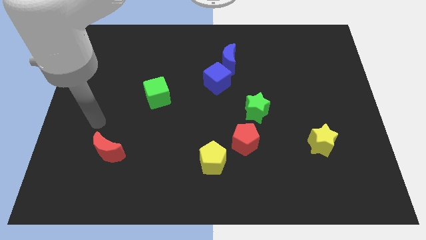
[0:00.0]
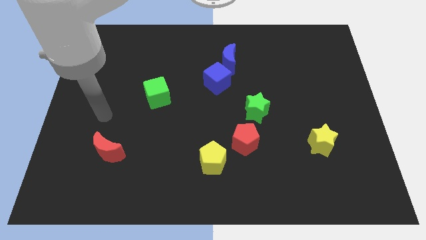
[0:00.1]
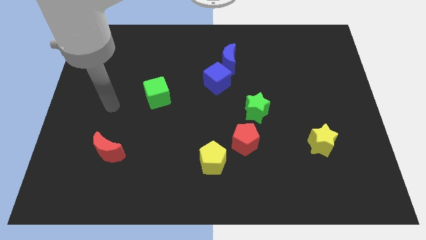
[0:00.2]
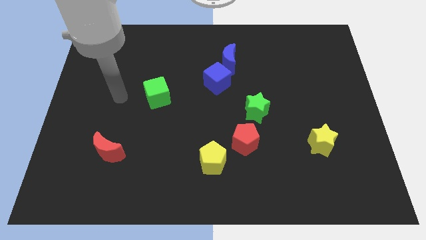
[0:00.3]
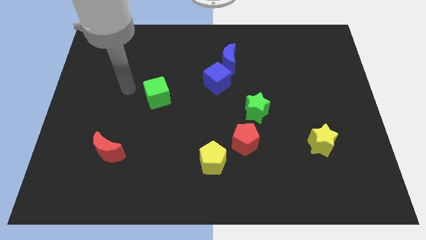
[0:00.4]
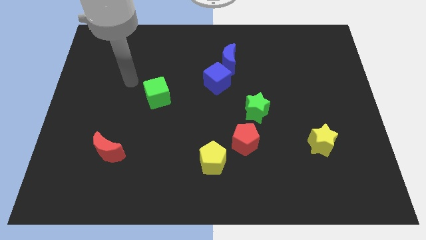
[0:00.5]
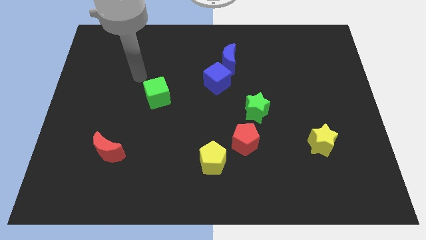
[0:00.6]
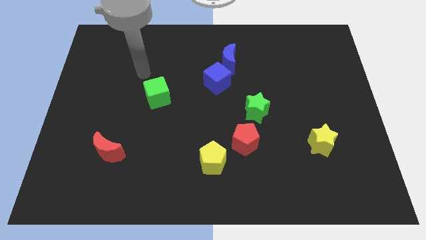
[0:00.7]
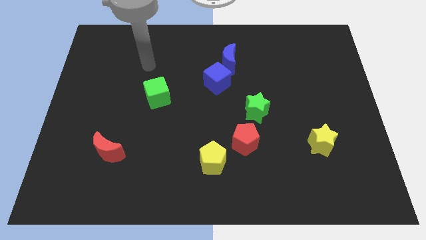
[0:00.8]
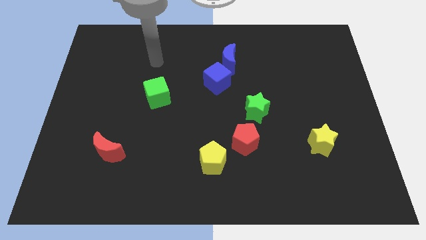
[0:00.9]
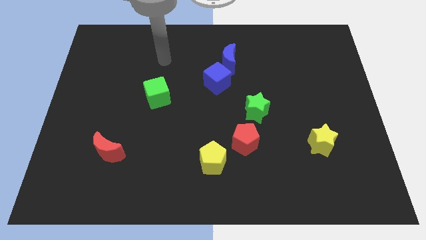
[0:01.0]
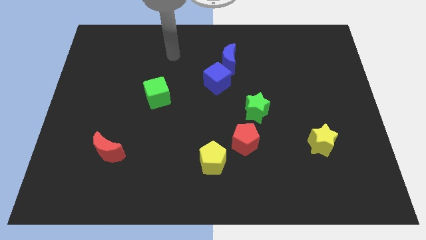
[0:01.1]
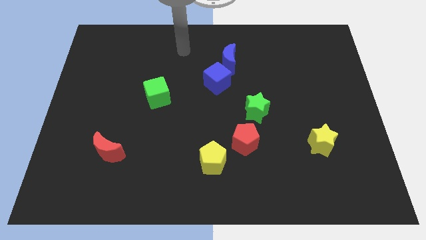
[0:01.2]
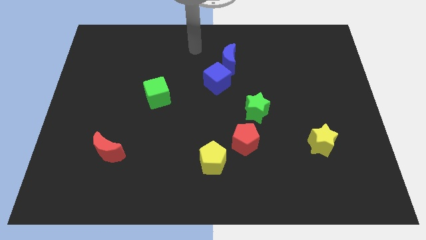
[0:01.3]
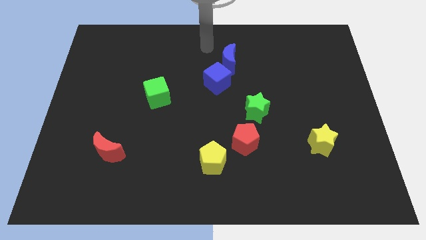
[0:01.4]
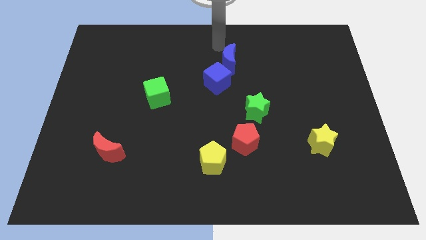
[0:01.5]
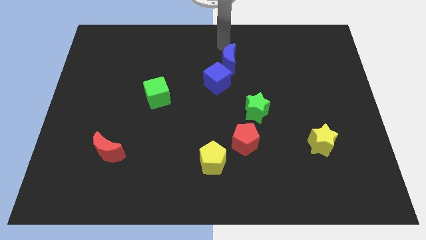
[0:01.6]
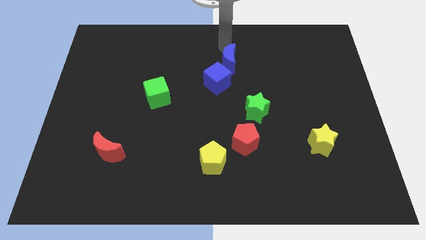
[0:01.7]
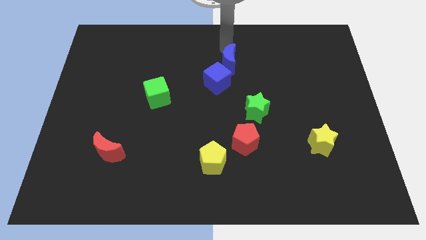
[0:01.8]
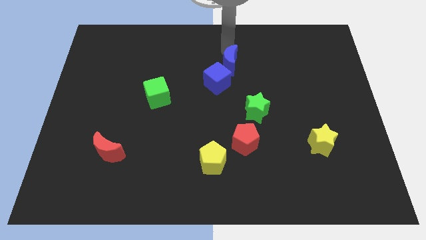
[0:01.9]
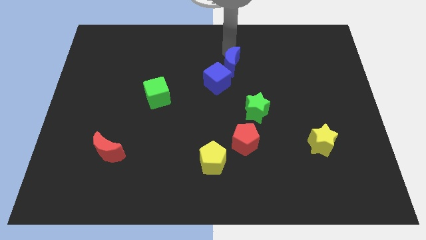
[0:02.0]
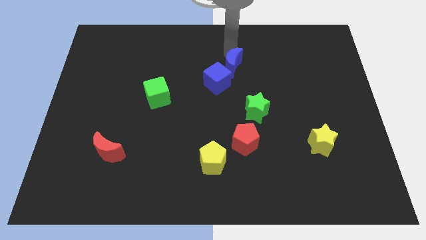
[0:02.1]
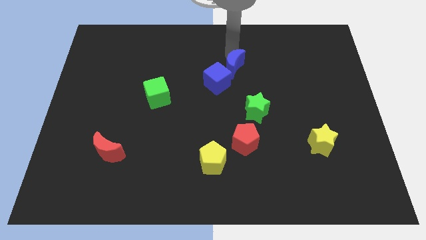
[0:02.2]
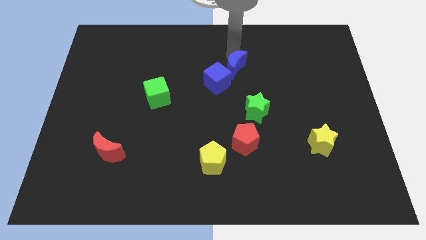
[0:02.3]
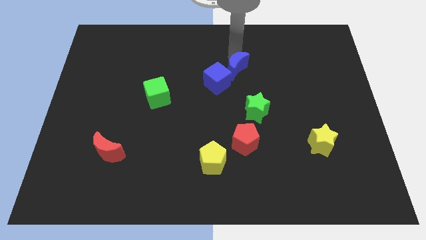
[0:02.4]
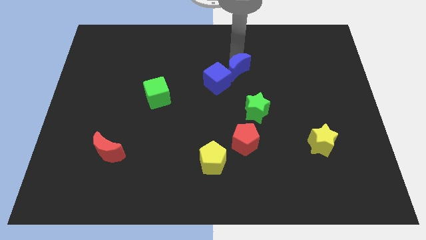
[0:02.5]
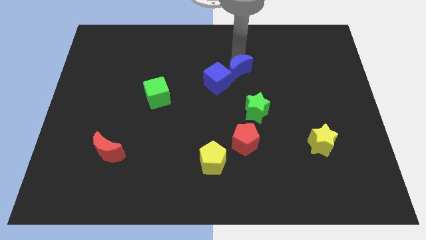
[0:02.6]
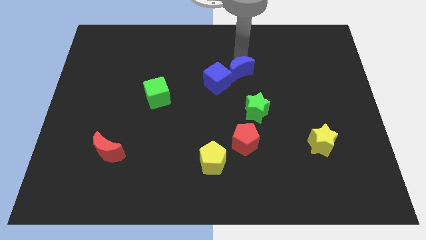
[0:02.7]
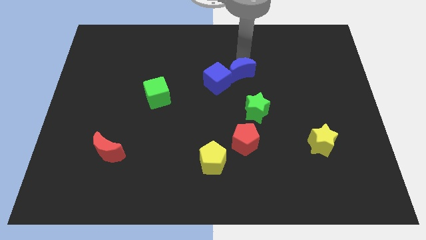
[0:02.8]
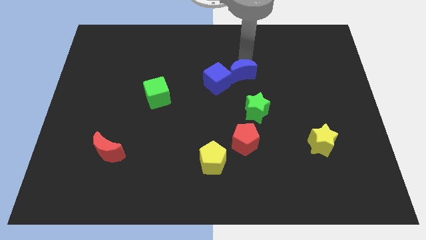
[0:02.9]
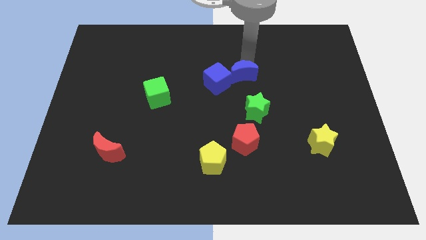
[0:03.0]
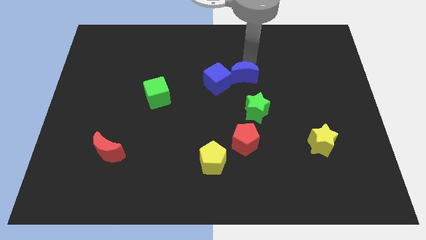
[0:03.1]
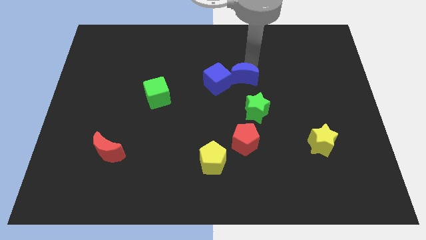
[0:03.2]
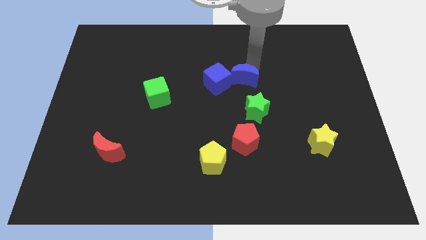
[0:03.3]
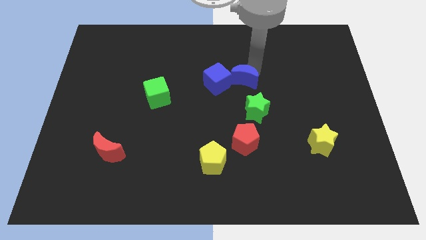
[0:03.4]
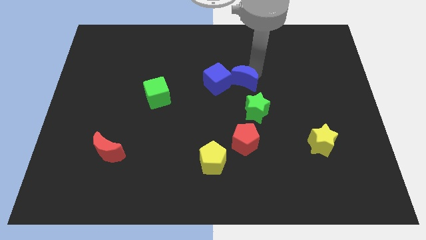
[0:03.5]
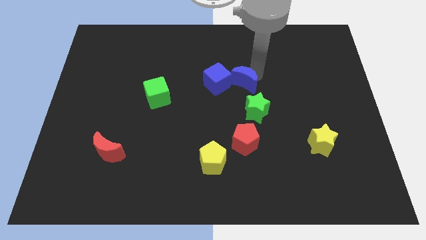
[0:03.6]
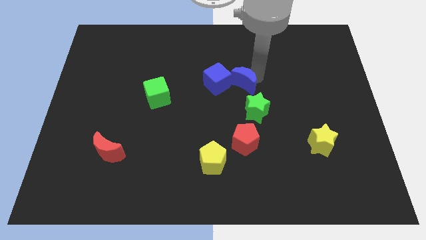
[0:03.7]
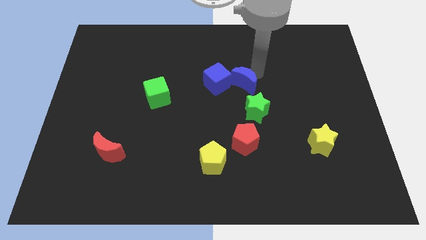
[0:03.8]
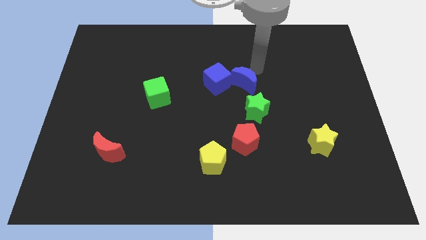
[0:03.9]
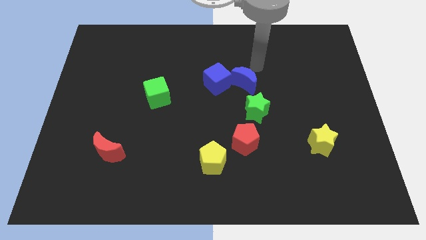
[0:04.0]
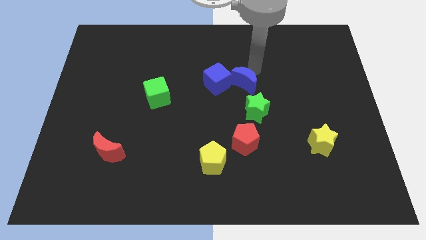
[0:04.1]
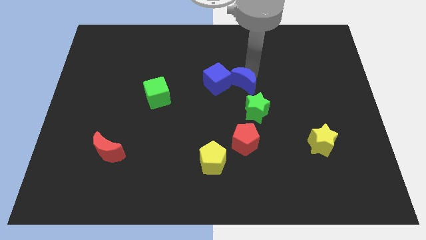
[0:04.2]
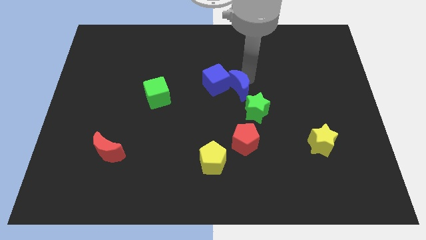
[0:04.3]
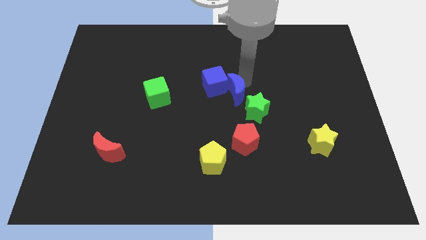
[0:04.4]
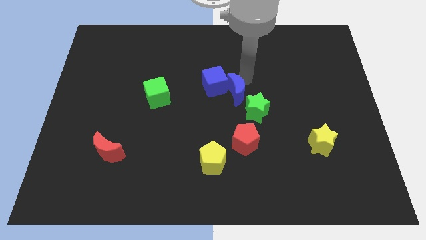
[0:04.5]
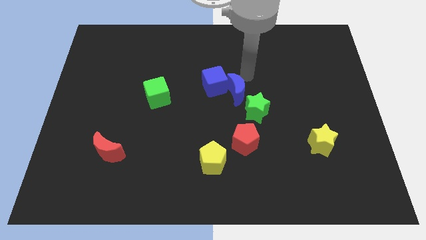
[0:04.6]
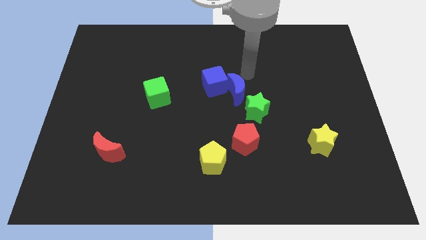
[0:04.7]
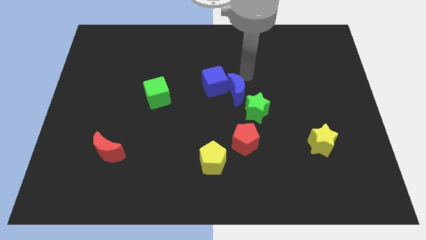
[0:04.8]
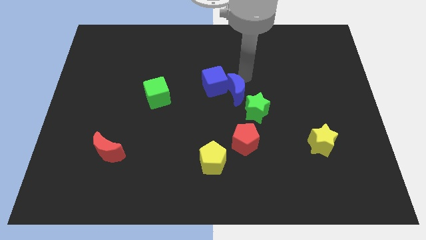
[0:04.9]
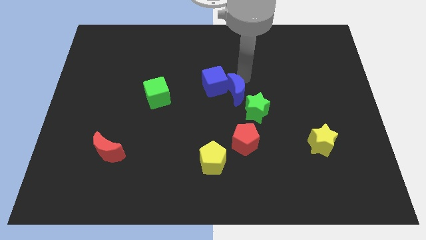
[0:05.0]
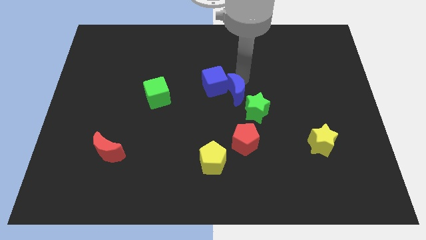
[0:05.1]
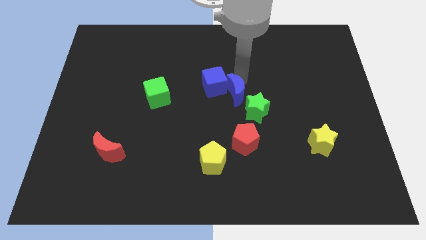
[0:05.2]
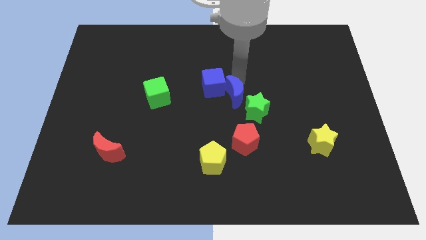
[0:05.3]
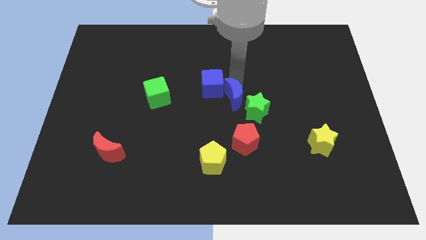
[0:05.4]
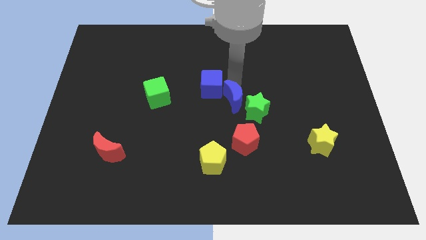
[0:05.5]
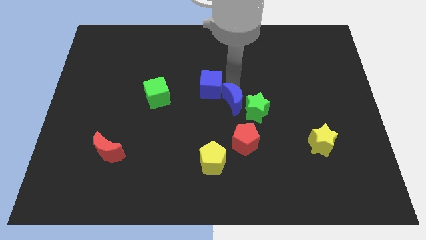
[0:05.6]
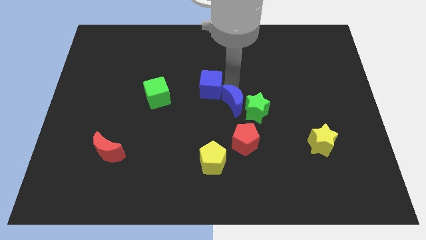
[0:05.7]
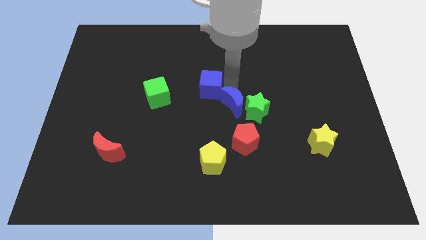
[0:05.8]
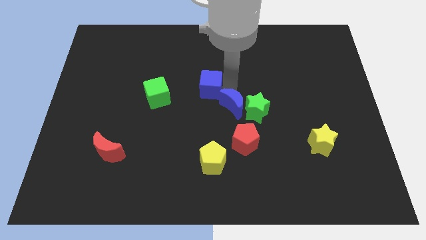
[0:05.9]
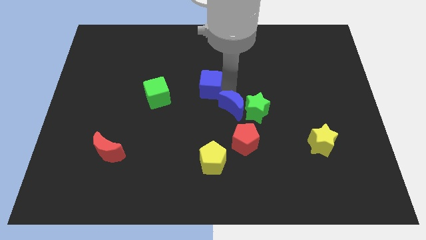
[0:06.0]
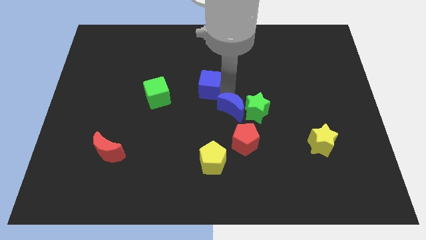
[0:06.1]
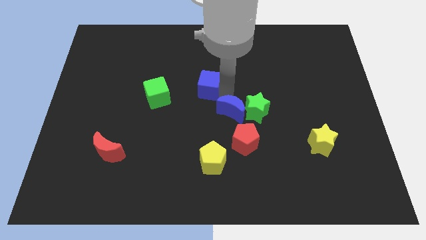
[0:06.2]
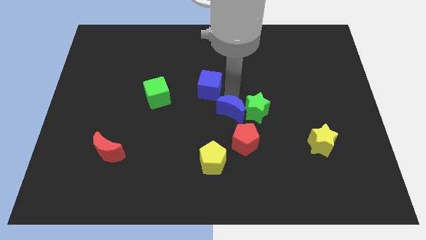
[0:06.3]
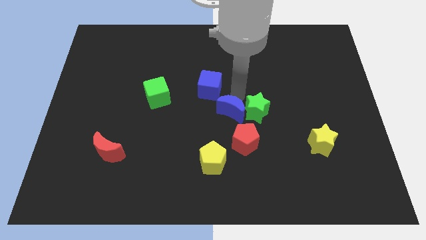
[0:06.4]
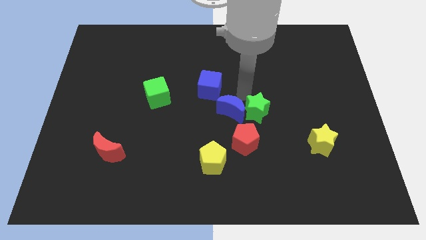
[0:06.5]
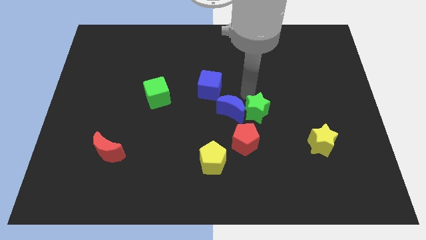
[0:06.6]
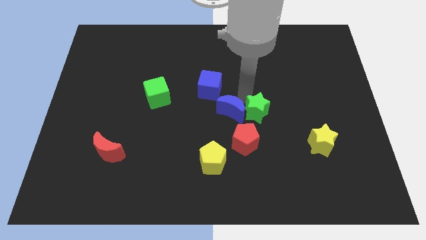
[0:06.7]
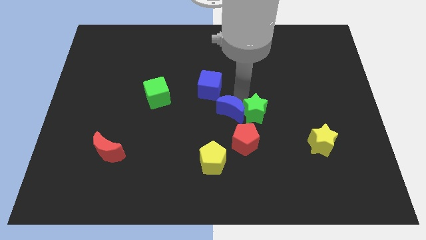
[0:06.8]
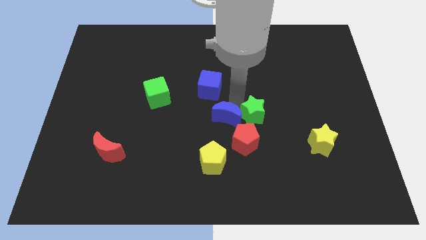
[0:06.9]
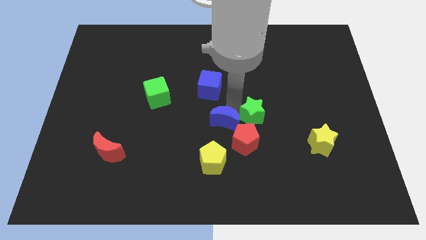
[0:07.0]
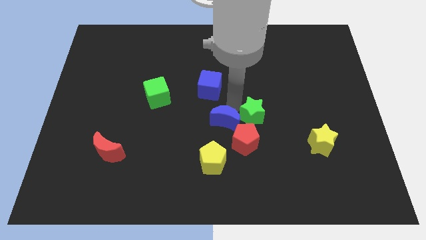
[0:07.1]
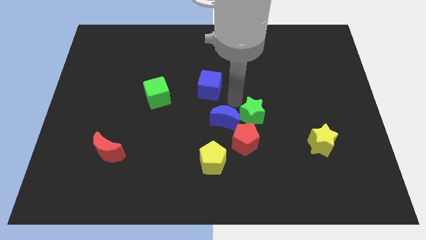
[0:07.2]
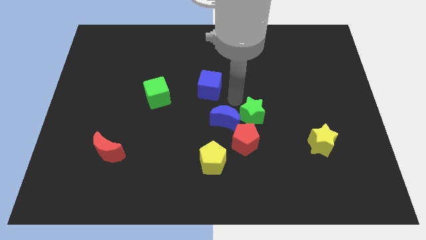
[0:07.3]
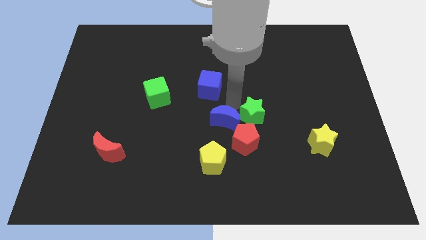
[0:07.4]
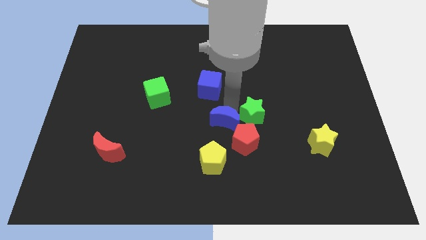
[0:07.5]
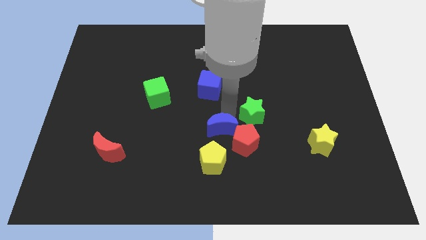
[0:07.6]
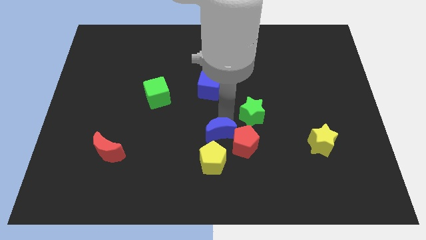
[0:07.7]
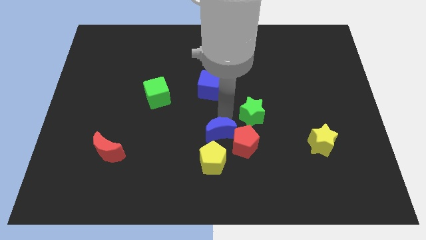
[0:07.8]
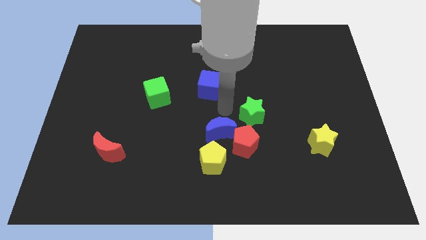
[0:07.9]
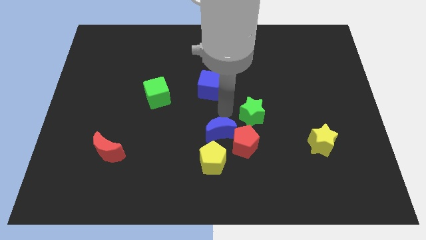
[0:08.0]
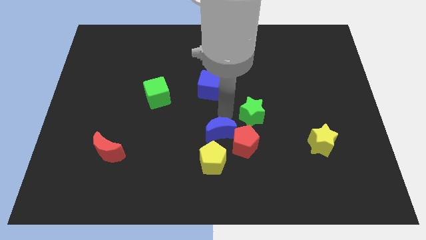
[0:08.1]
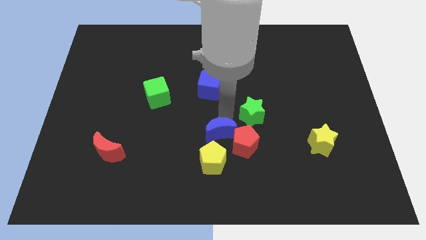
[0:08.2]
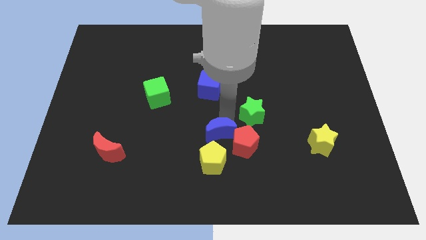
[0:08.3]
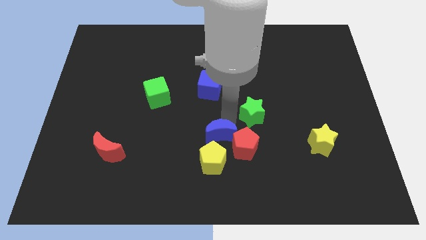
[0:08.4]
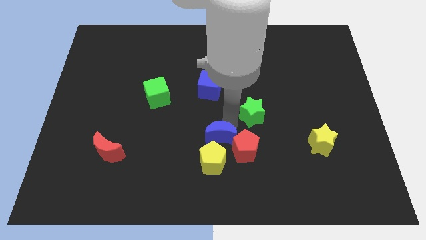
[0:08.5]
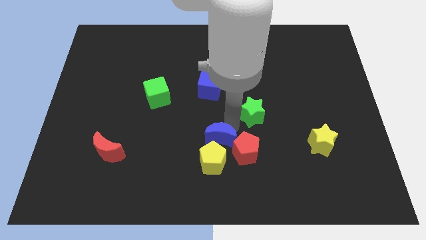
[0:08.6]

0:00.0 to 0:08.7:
move the blue moon close to the yellow pentagon
